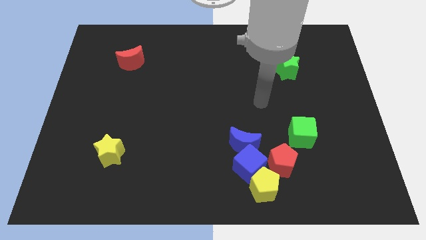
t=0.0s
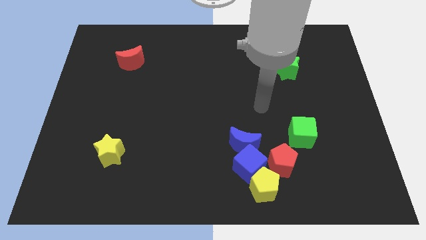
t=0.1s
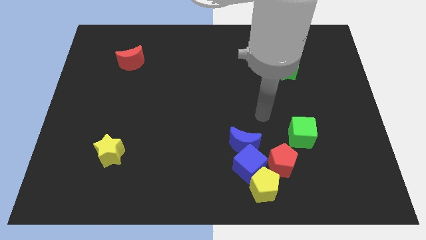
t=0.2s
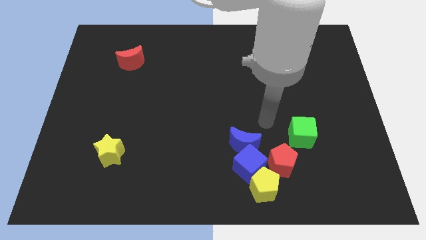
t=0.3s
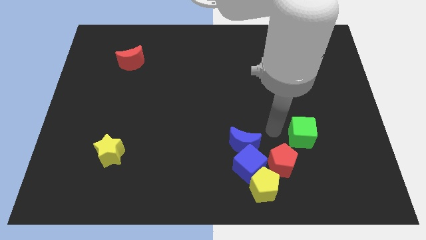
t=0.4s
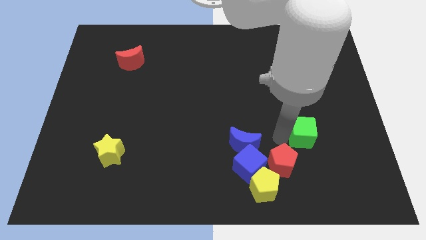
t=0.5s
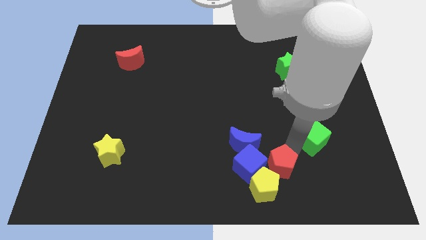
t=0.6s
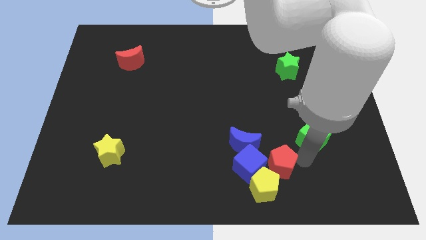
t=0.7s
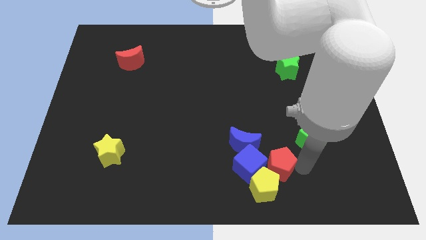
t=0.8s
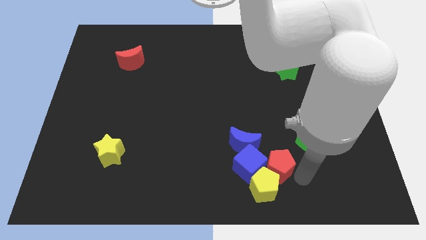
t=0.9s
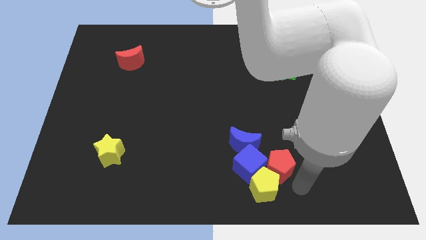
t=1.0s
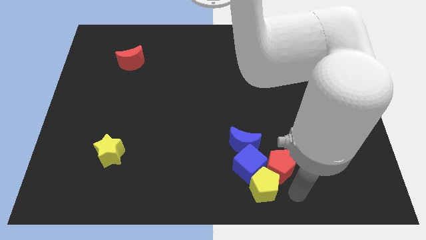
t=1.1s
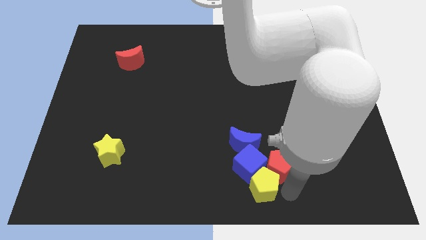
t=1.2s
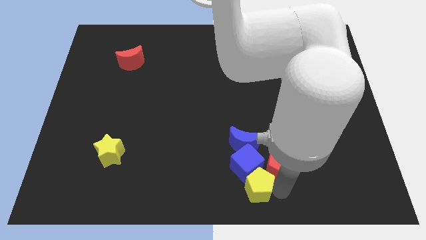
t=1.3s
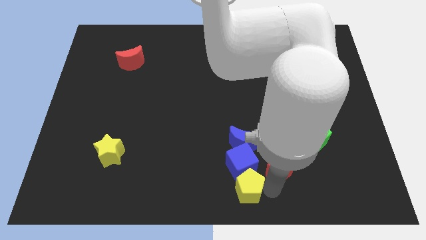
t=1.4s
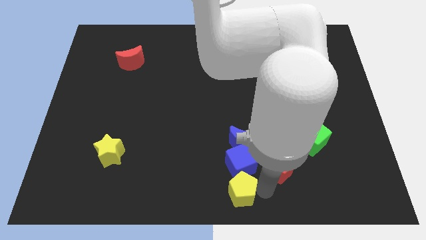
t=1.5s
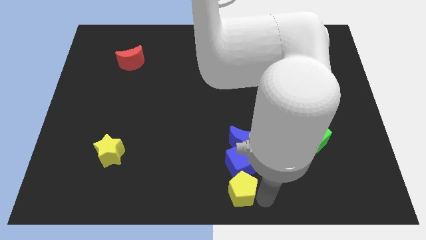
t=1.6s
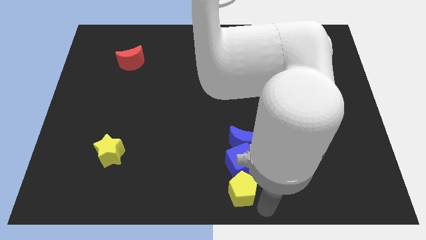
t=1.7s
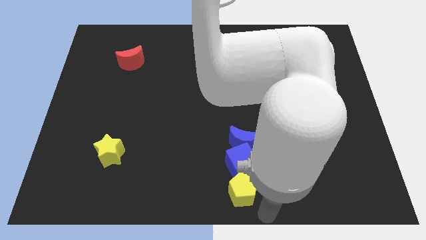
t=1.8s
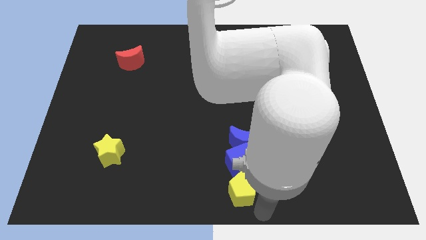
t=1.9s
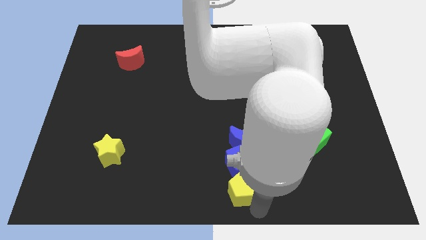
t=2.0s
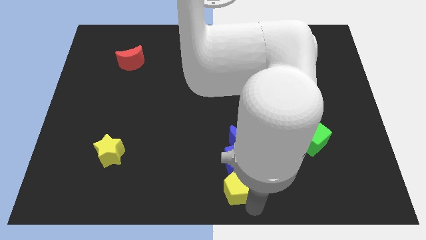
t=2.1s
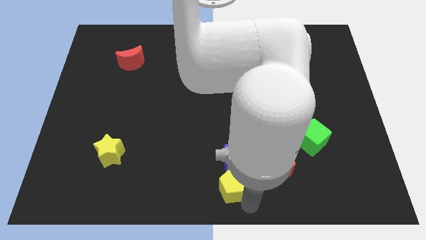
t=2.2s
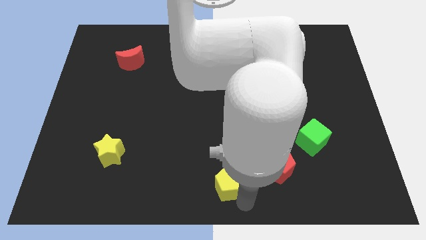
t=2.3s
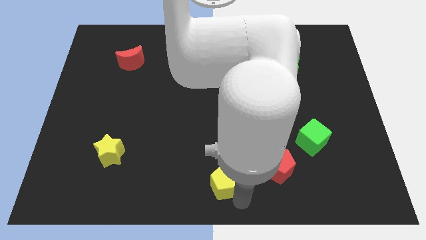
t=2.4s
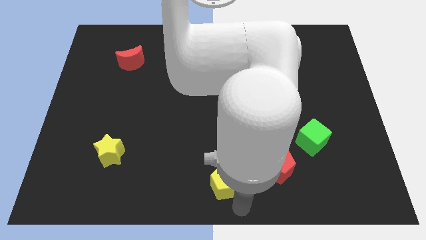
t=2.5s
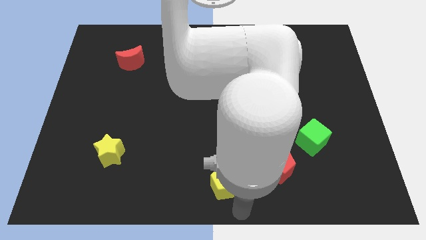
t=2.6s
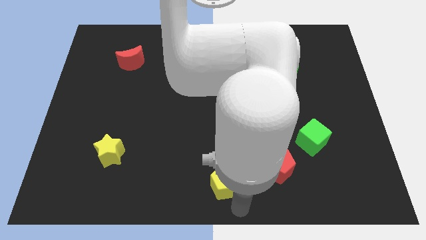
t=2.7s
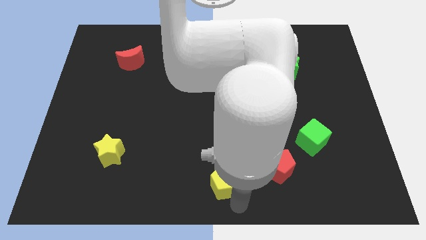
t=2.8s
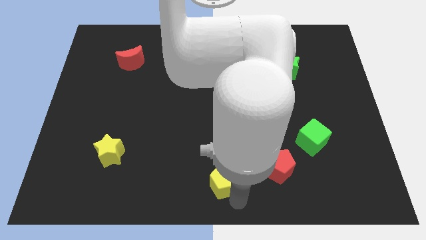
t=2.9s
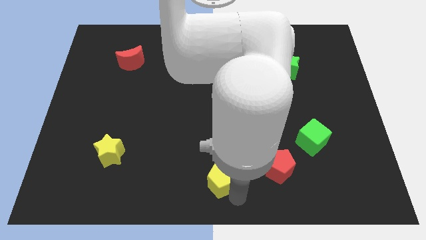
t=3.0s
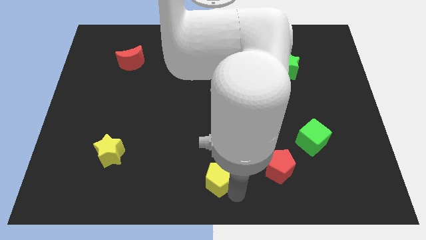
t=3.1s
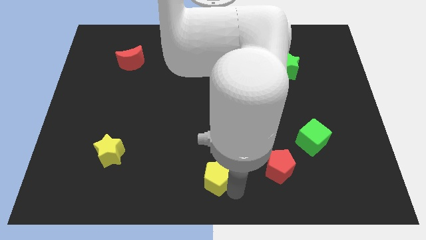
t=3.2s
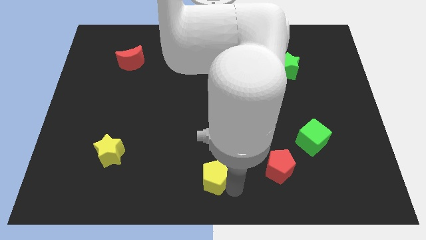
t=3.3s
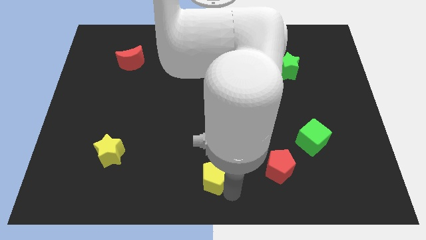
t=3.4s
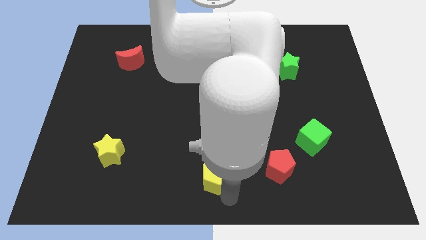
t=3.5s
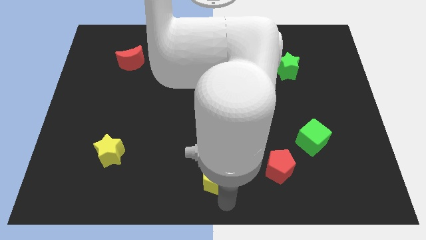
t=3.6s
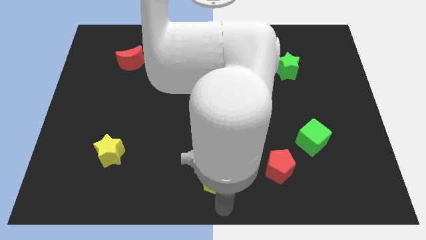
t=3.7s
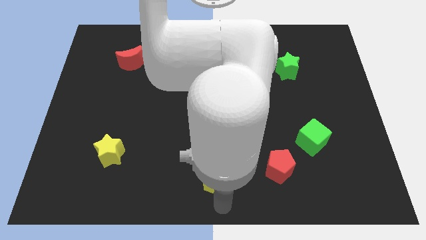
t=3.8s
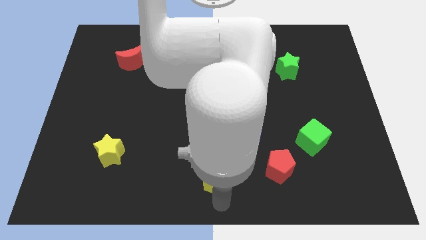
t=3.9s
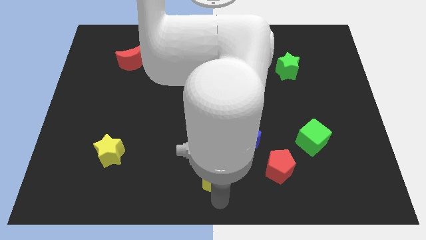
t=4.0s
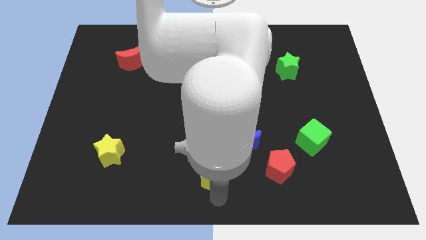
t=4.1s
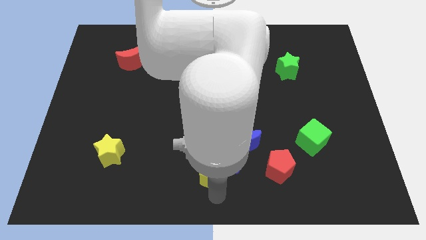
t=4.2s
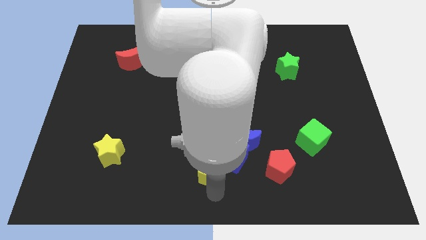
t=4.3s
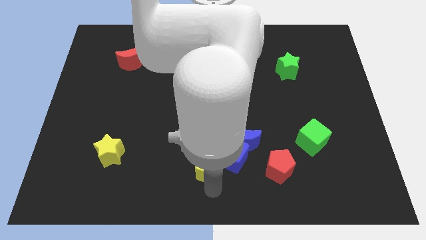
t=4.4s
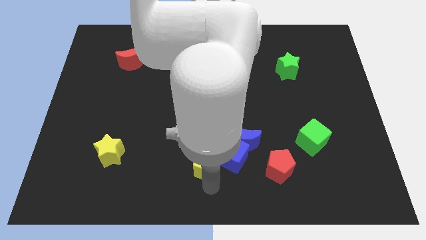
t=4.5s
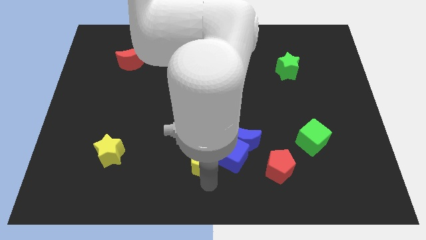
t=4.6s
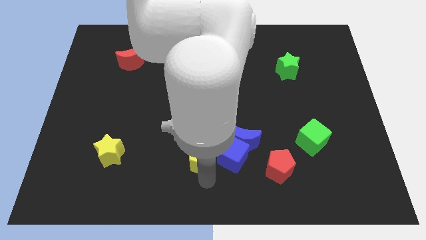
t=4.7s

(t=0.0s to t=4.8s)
put the yellow pentagon just left of the blue moon

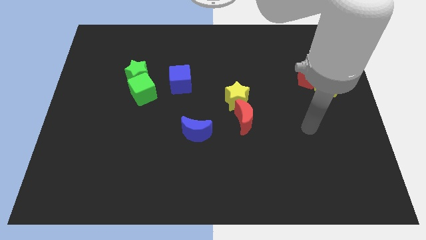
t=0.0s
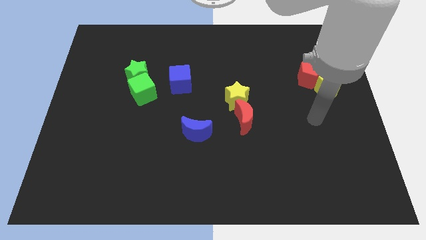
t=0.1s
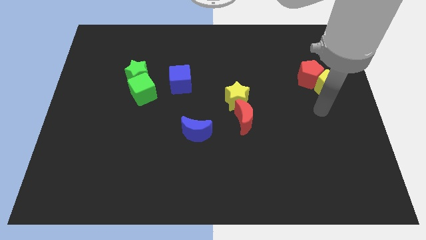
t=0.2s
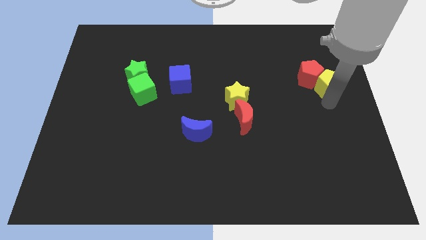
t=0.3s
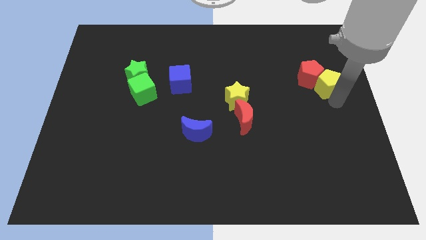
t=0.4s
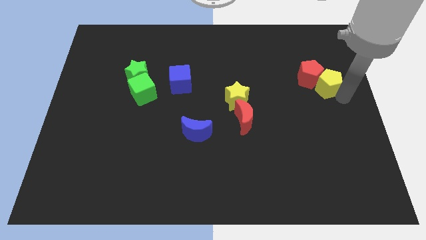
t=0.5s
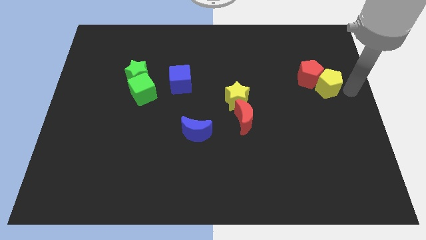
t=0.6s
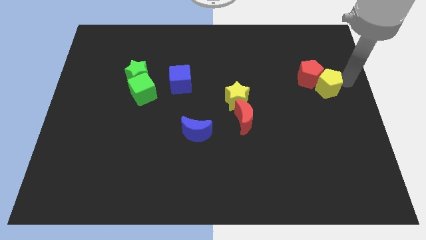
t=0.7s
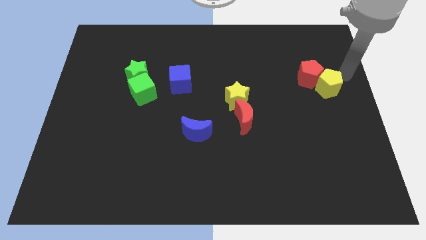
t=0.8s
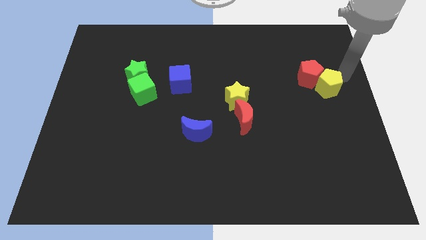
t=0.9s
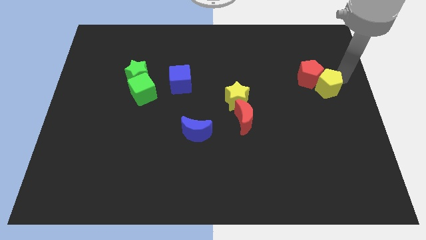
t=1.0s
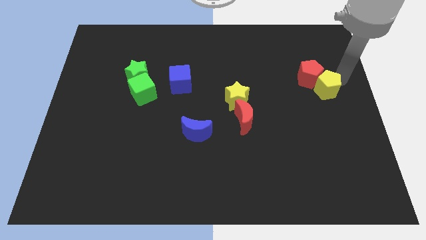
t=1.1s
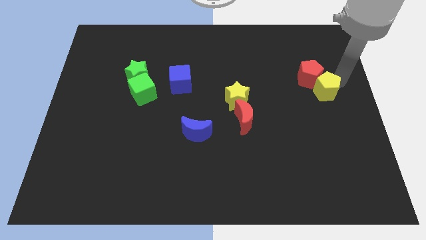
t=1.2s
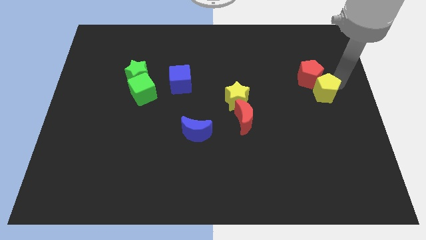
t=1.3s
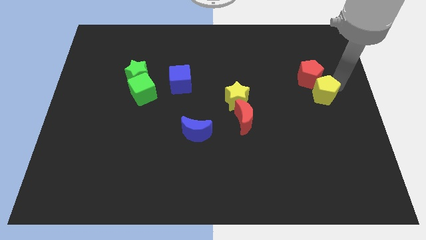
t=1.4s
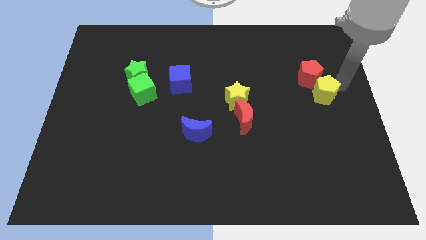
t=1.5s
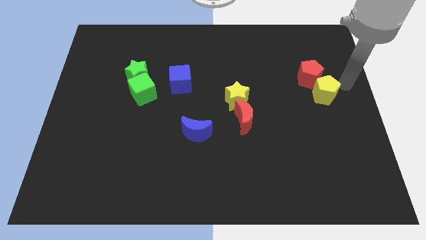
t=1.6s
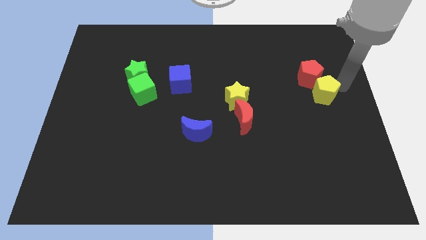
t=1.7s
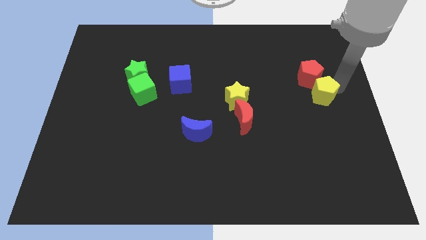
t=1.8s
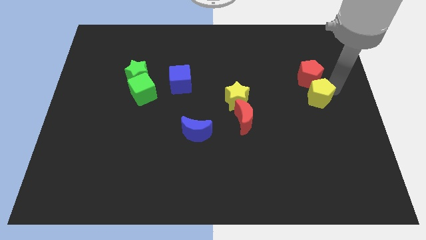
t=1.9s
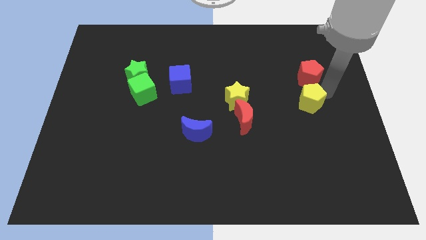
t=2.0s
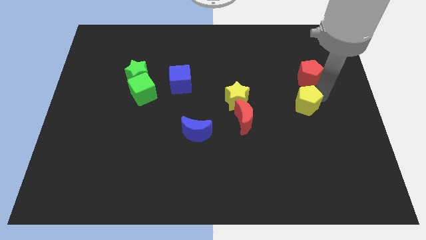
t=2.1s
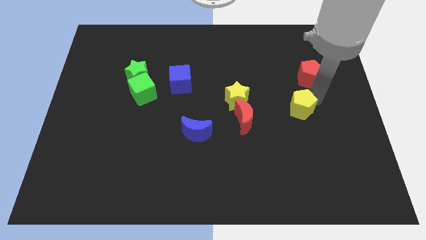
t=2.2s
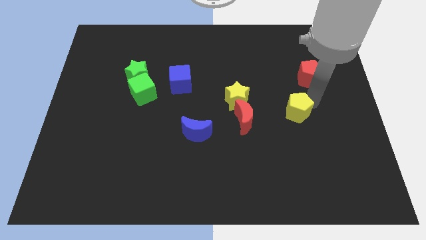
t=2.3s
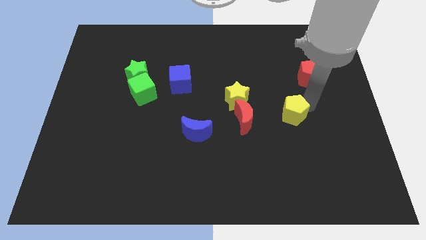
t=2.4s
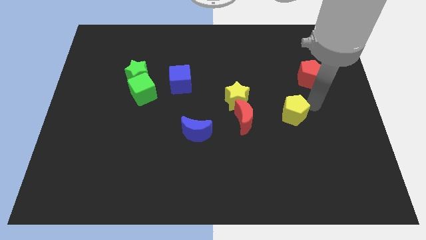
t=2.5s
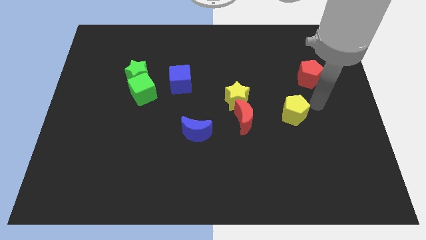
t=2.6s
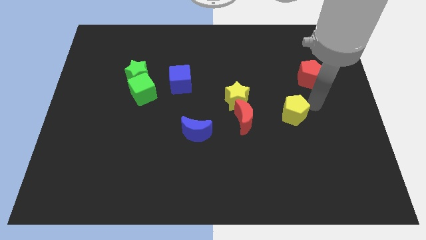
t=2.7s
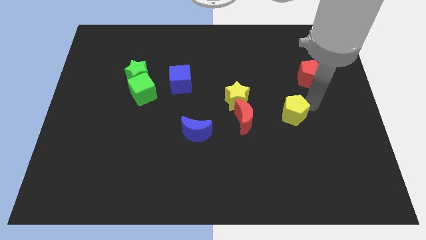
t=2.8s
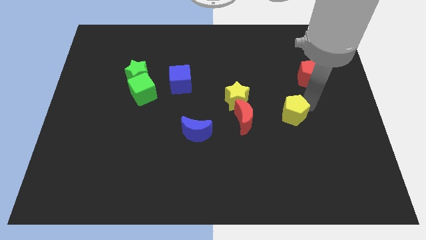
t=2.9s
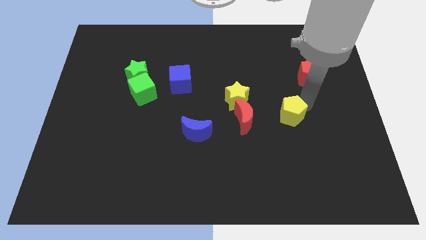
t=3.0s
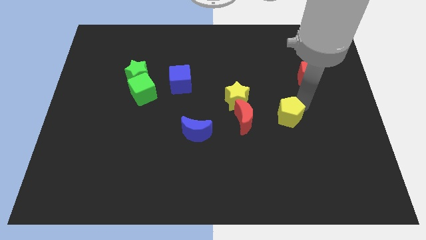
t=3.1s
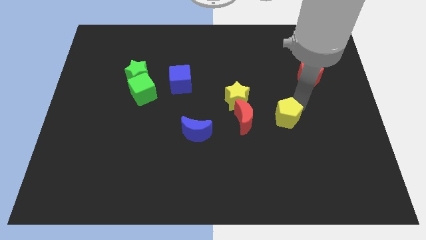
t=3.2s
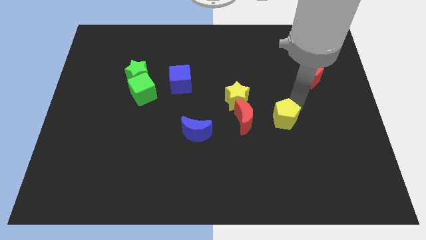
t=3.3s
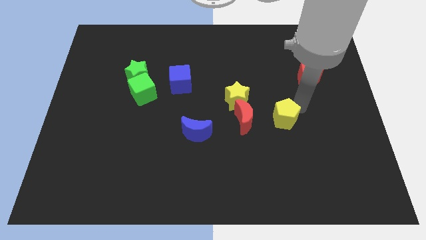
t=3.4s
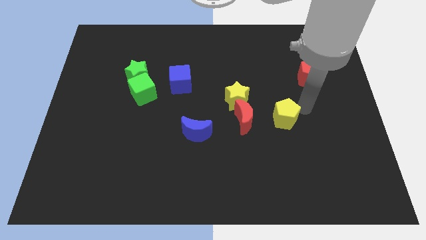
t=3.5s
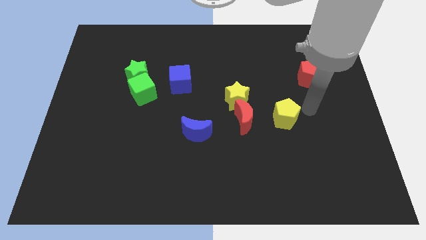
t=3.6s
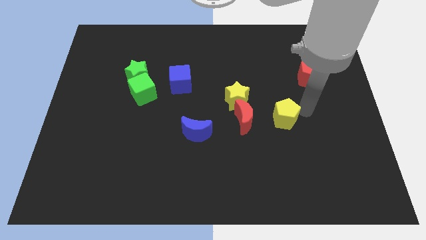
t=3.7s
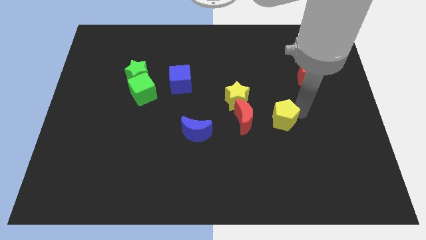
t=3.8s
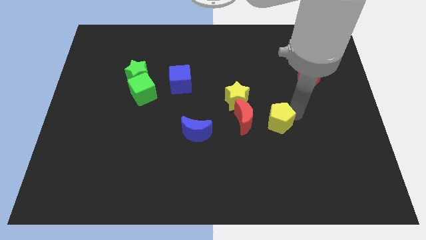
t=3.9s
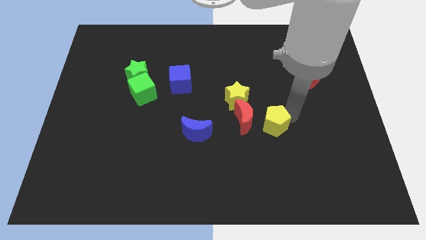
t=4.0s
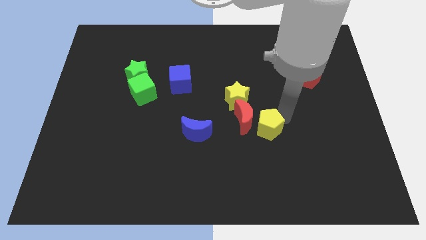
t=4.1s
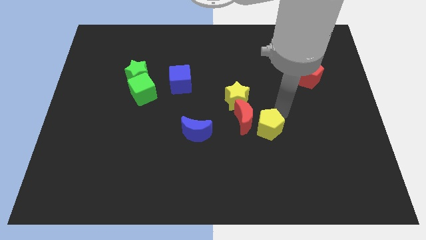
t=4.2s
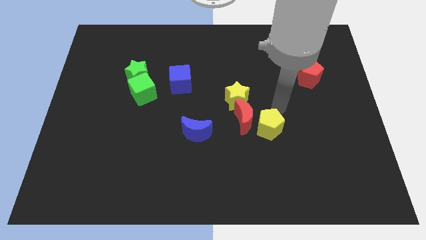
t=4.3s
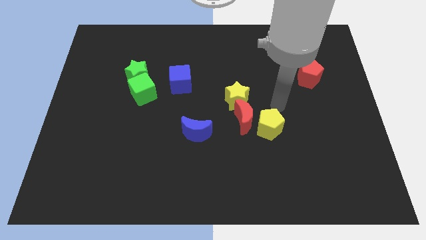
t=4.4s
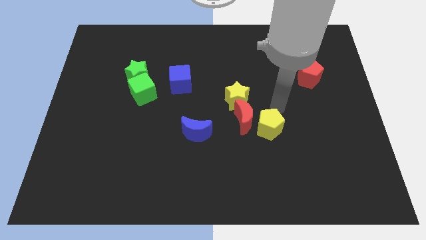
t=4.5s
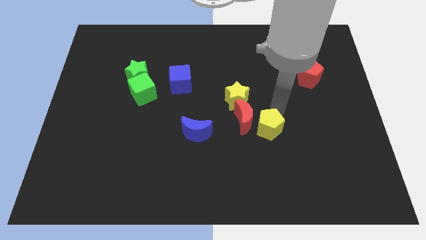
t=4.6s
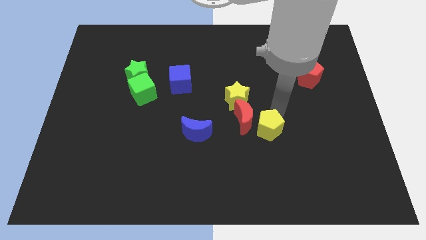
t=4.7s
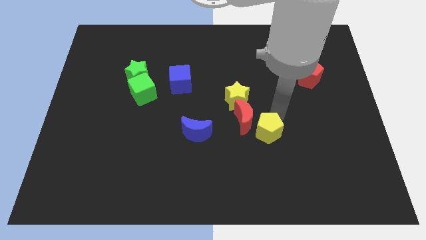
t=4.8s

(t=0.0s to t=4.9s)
put the yellow pentagon just right of the blue moon
